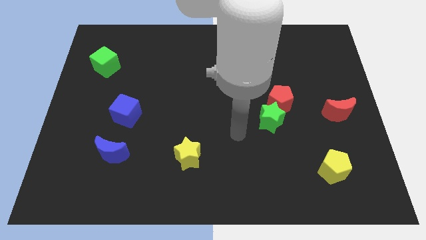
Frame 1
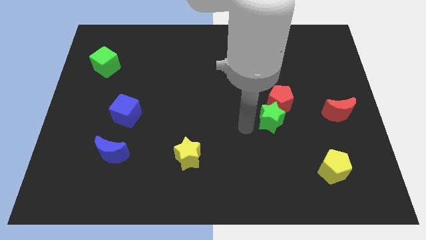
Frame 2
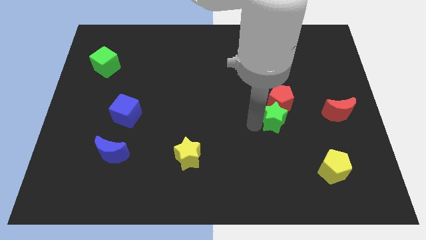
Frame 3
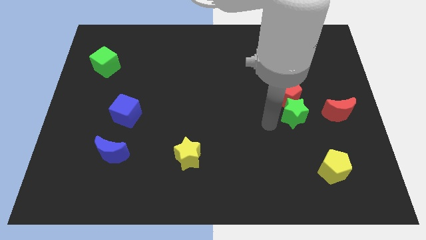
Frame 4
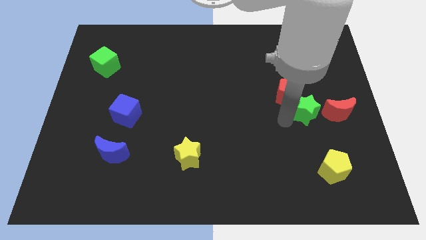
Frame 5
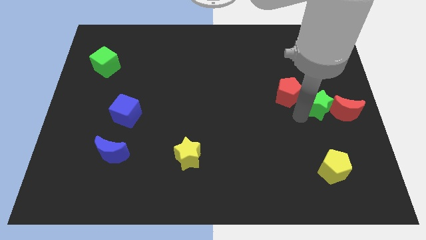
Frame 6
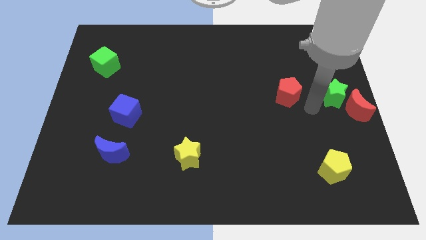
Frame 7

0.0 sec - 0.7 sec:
separate the red pentagon from the green star

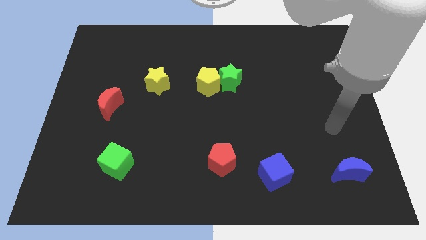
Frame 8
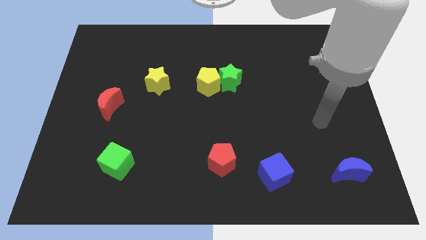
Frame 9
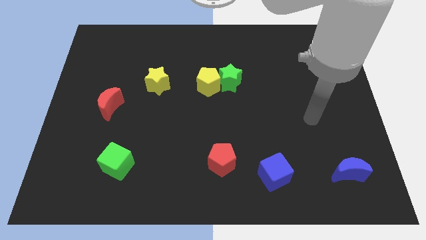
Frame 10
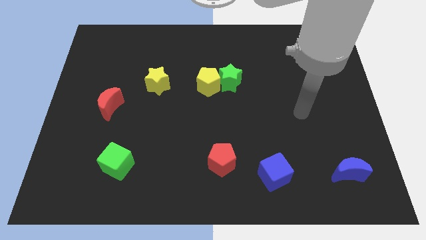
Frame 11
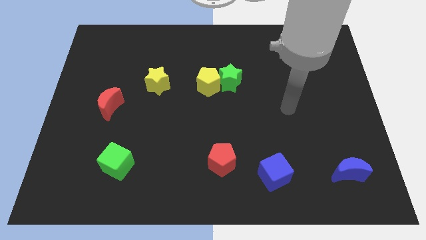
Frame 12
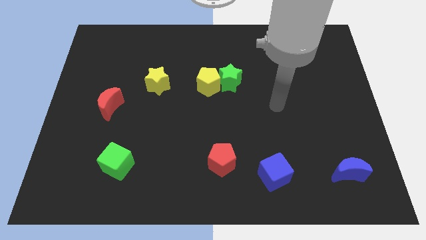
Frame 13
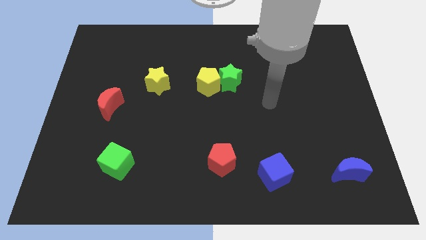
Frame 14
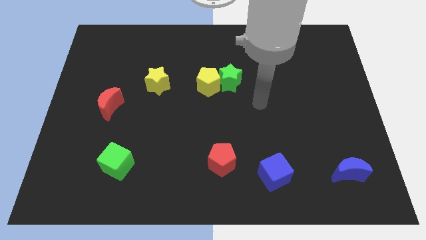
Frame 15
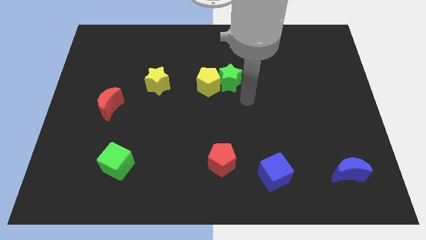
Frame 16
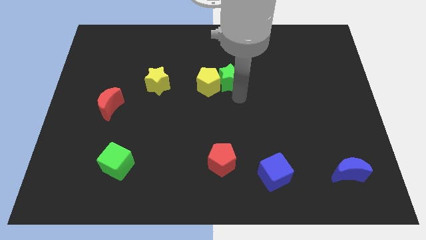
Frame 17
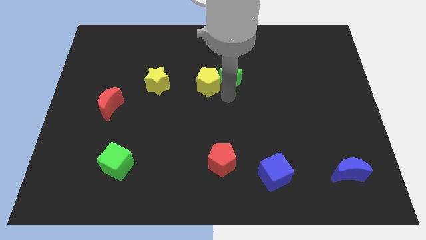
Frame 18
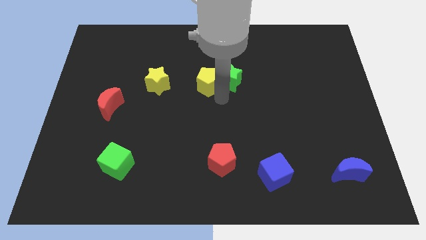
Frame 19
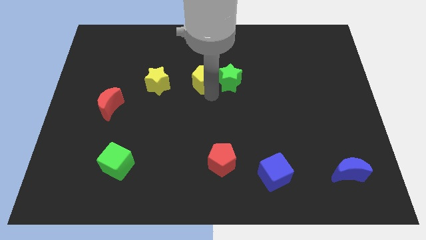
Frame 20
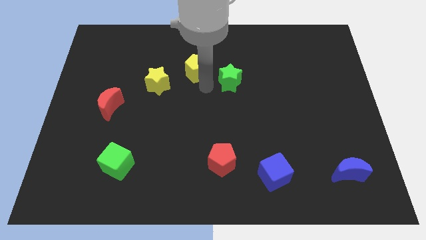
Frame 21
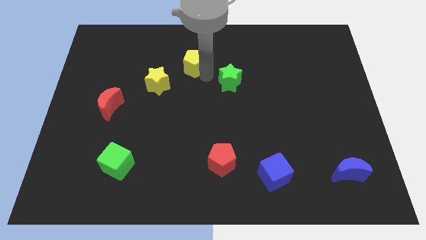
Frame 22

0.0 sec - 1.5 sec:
separate the green star from the yellow pentagon

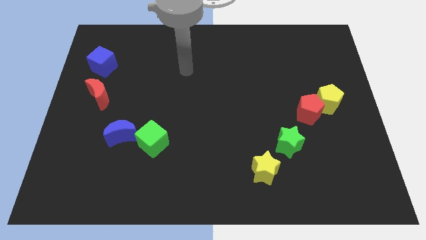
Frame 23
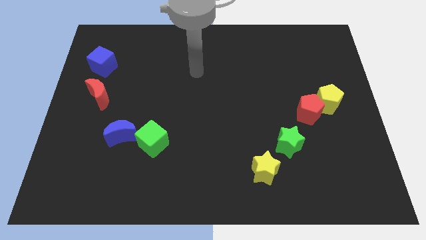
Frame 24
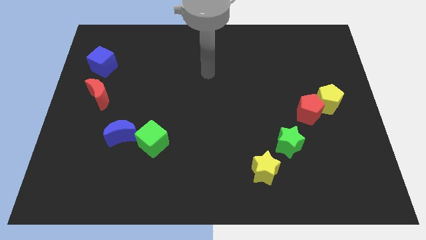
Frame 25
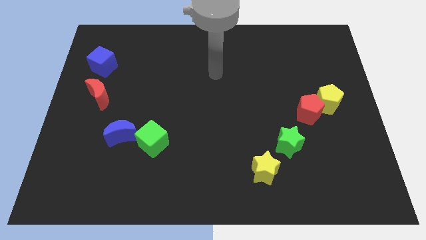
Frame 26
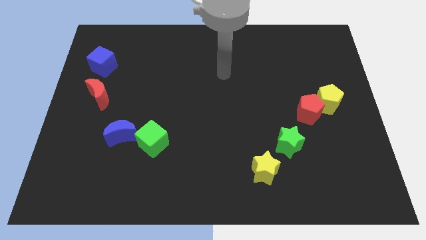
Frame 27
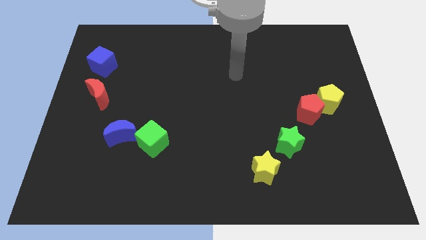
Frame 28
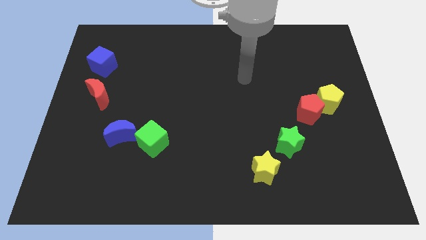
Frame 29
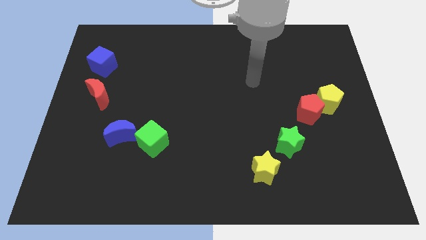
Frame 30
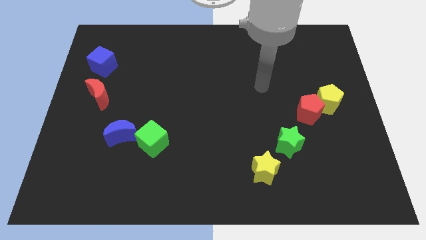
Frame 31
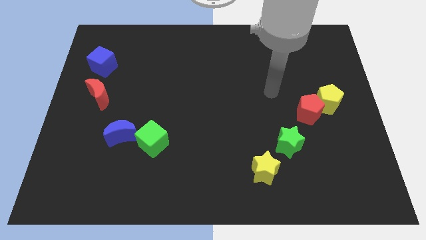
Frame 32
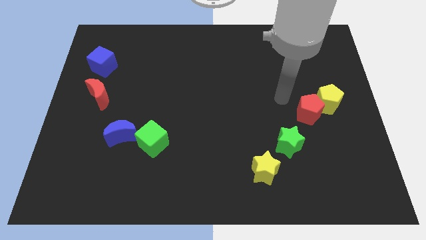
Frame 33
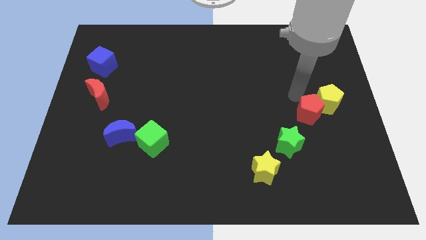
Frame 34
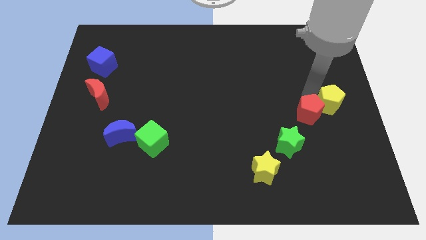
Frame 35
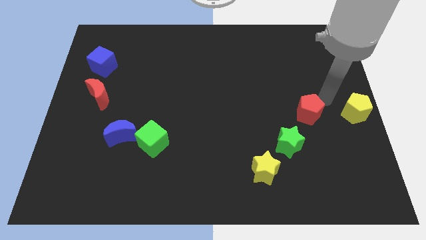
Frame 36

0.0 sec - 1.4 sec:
move the red pentagon away from the yellow pentagon

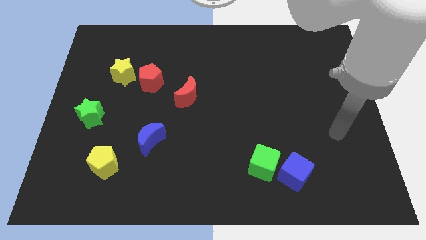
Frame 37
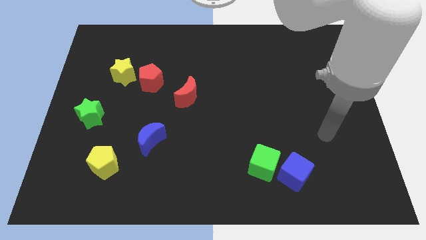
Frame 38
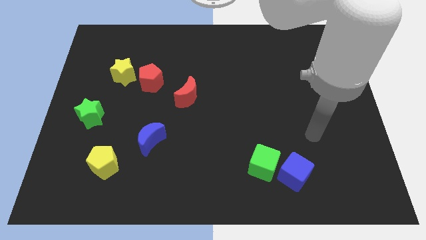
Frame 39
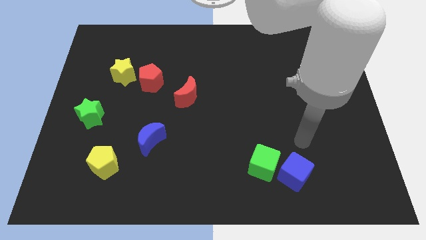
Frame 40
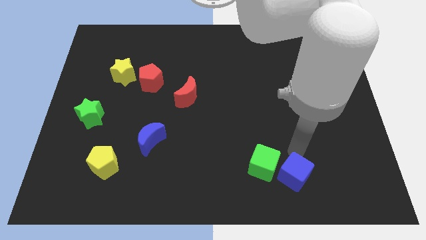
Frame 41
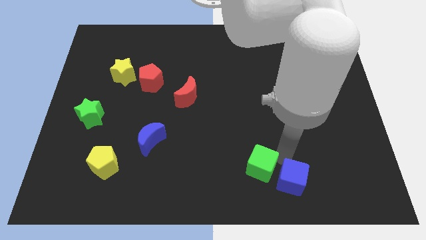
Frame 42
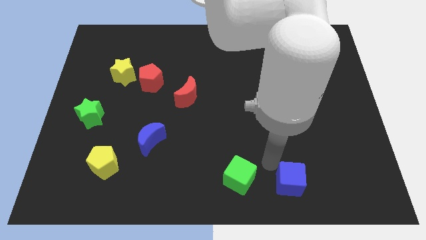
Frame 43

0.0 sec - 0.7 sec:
pull the blue cube apart from the green cube

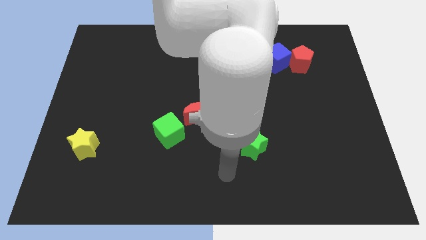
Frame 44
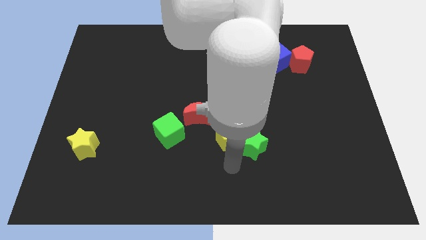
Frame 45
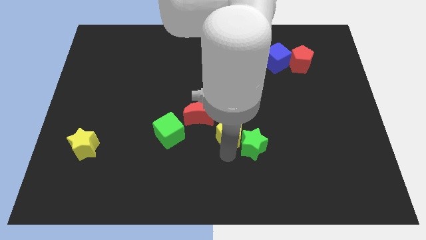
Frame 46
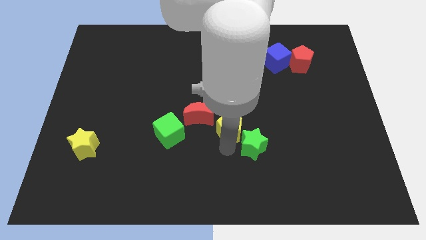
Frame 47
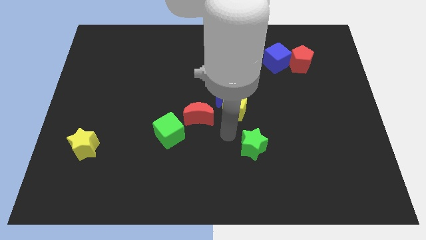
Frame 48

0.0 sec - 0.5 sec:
move the green star away from the yellow pentagon

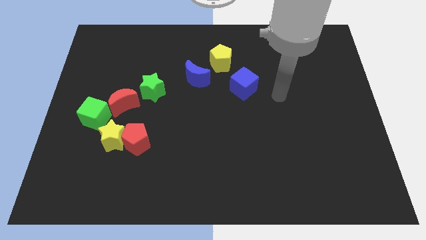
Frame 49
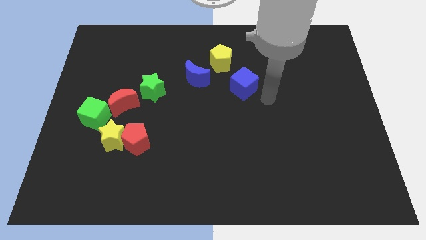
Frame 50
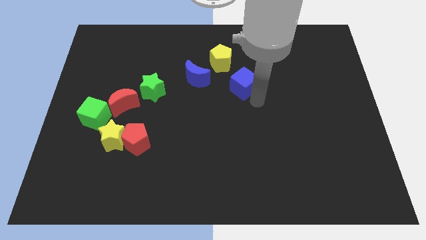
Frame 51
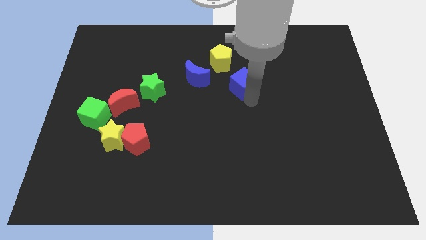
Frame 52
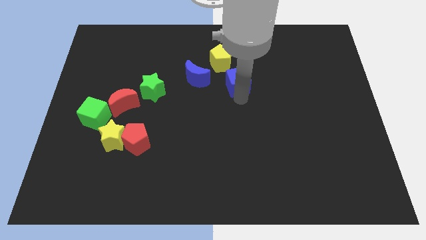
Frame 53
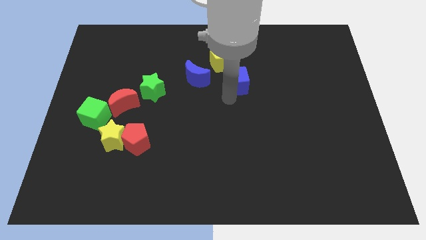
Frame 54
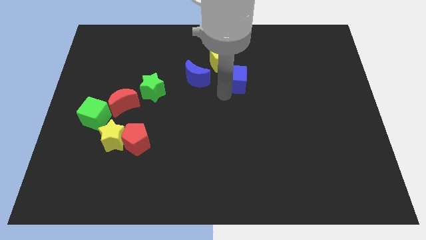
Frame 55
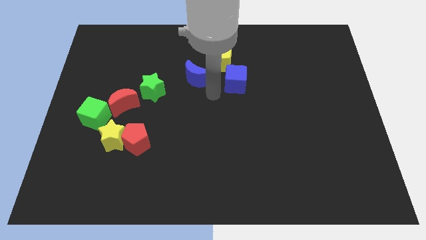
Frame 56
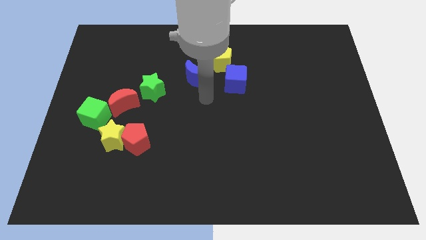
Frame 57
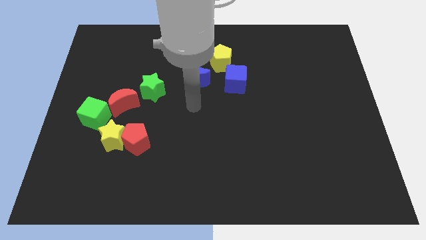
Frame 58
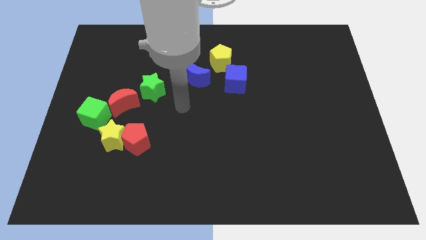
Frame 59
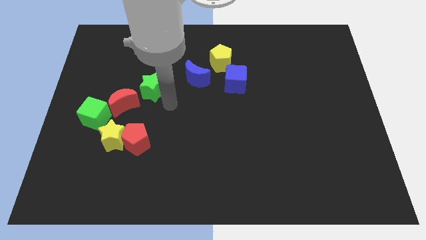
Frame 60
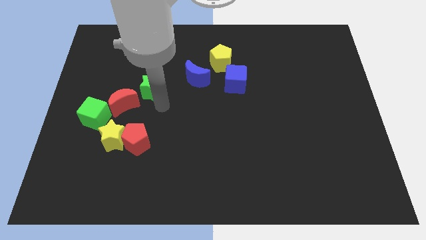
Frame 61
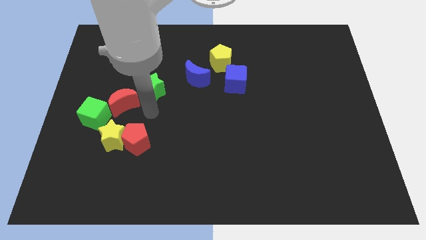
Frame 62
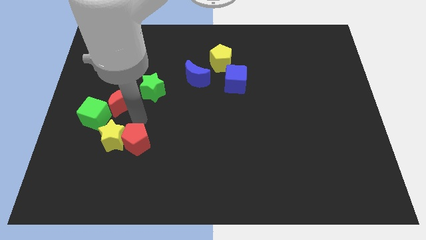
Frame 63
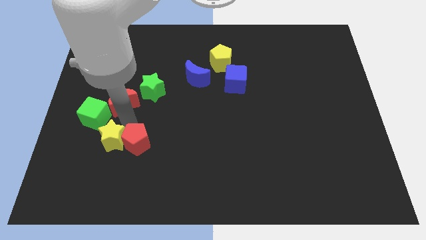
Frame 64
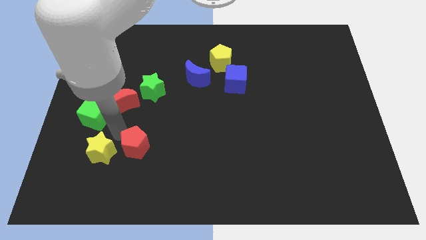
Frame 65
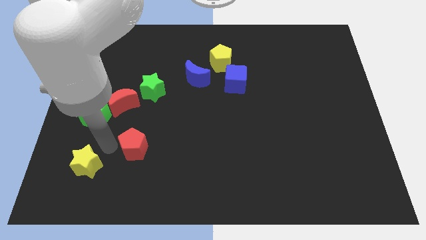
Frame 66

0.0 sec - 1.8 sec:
pull the red pentagon apart from the yellow star

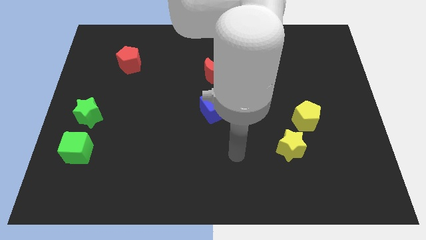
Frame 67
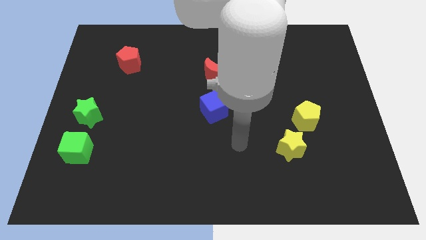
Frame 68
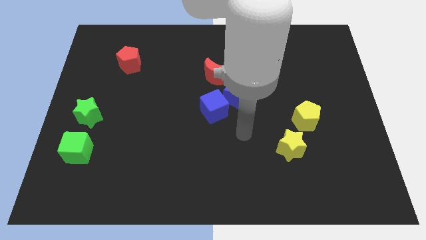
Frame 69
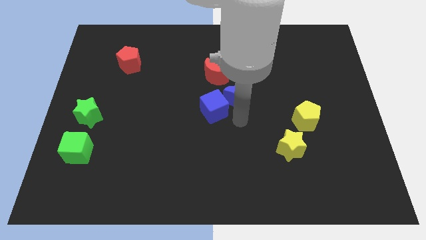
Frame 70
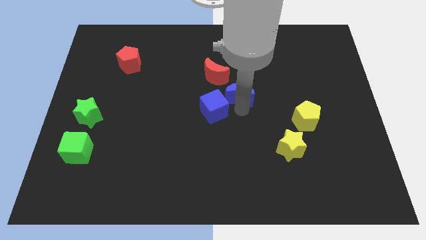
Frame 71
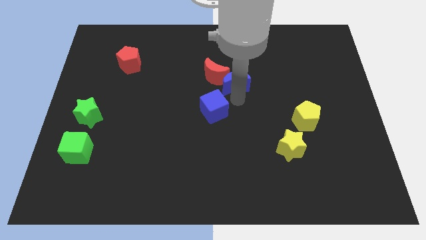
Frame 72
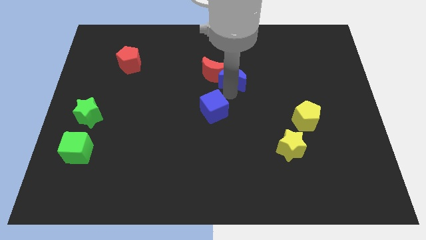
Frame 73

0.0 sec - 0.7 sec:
pull the blue cube apart from the blue moon

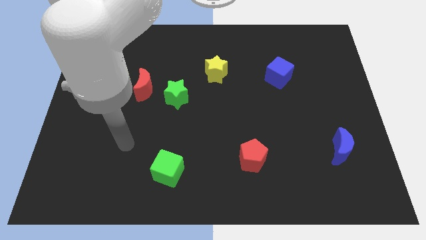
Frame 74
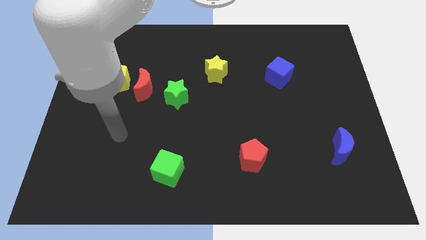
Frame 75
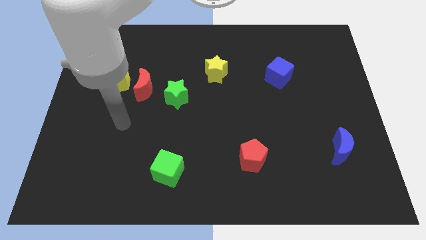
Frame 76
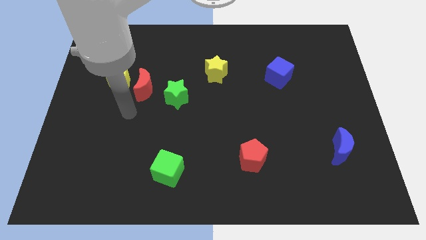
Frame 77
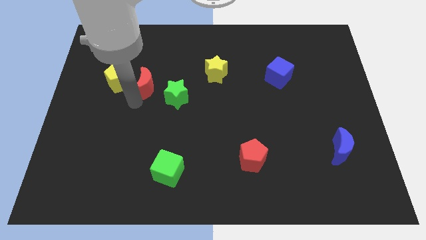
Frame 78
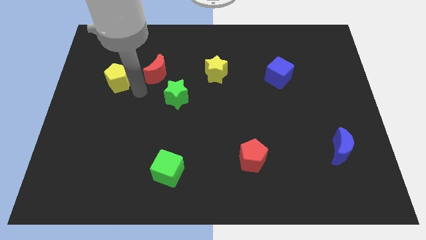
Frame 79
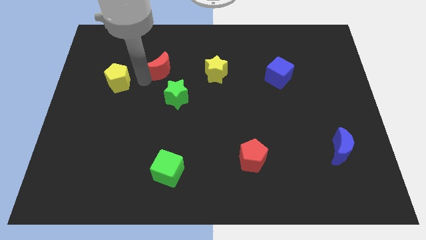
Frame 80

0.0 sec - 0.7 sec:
separate the yellow pentagon from the red moon

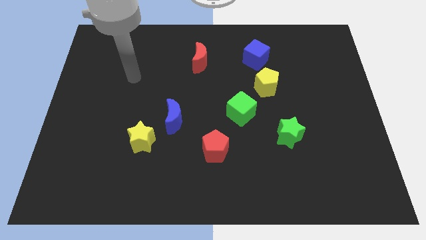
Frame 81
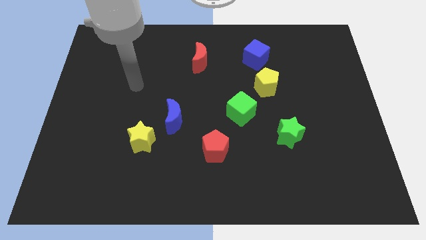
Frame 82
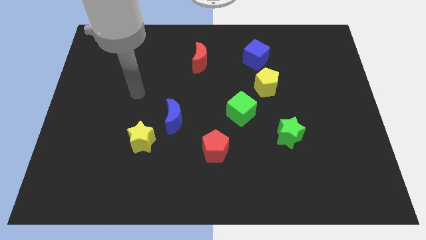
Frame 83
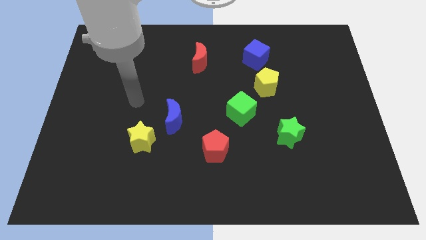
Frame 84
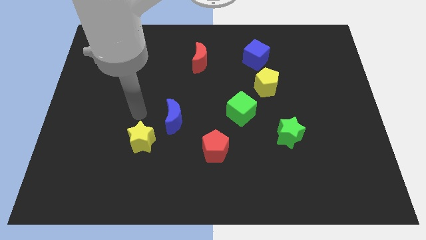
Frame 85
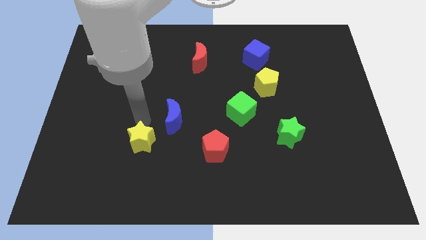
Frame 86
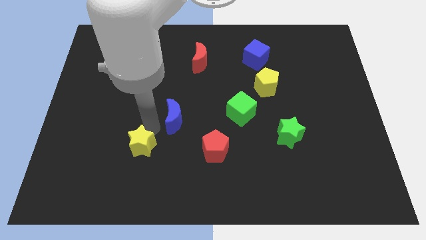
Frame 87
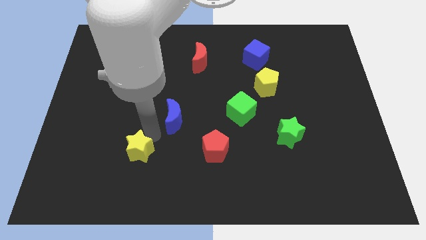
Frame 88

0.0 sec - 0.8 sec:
separate the blue moon from the yellow star

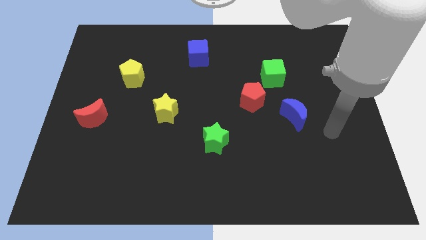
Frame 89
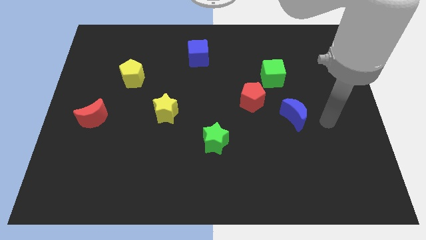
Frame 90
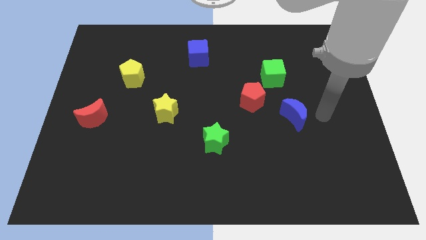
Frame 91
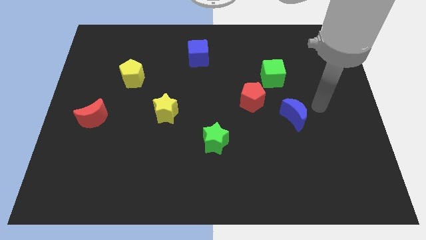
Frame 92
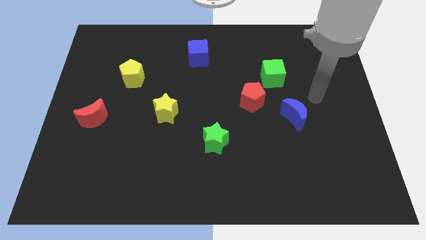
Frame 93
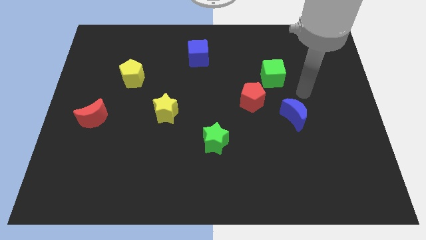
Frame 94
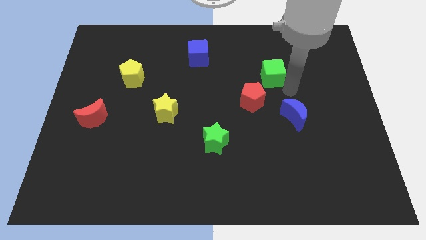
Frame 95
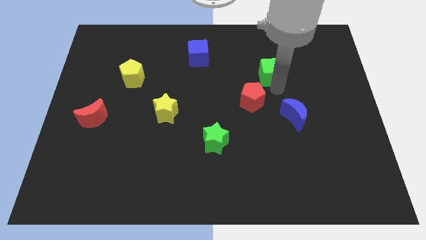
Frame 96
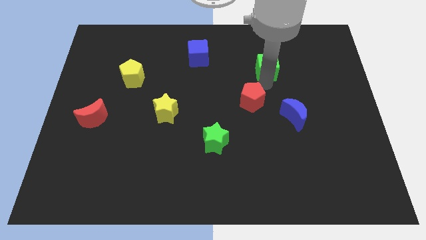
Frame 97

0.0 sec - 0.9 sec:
pull the red pentagon apart from the green cube
